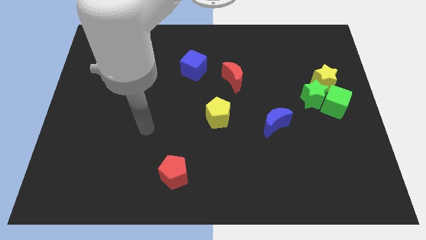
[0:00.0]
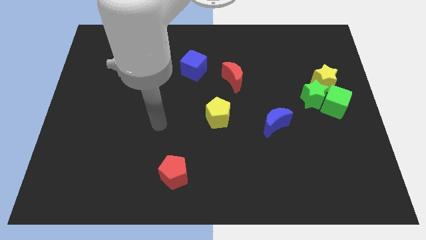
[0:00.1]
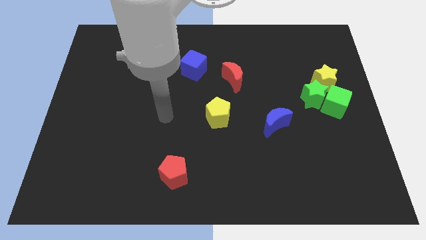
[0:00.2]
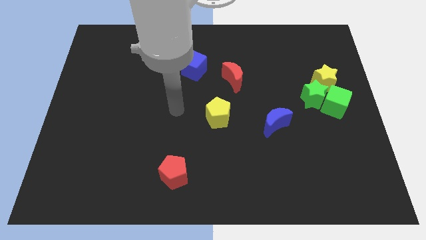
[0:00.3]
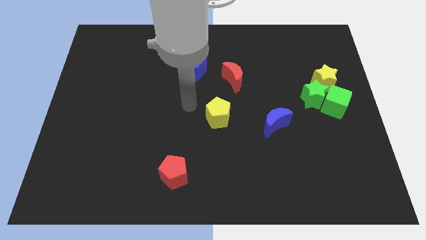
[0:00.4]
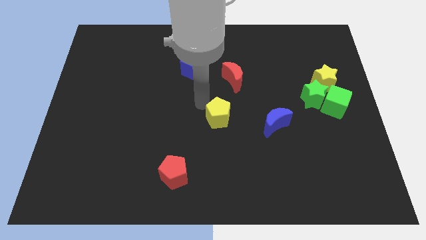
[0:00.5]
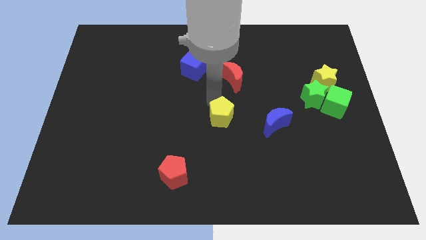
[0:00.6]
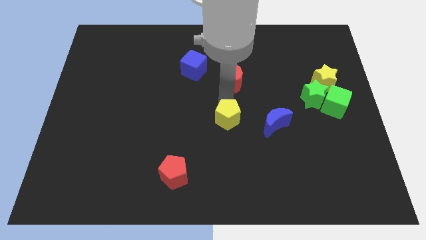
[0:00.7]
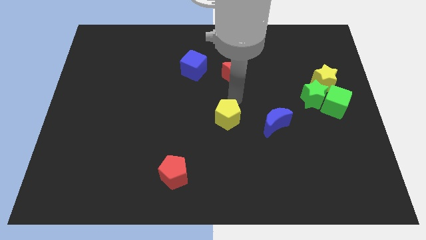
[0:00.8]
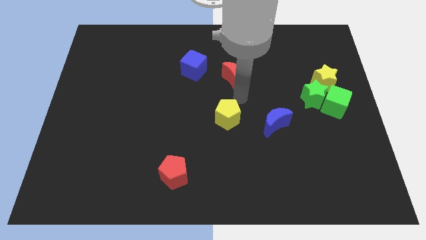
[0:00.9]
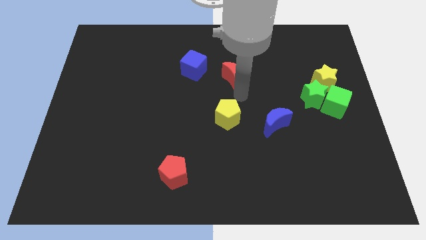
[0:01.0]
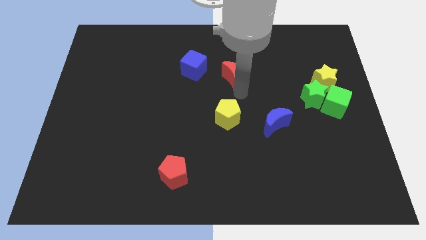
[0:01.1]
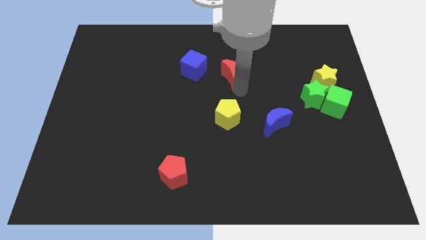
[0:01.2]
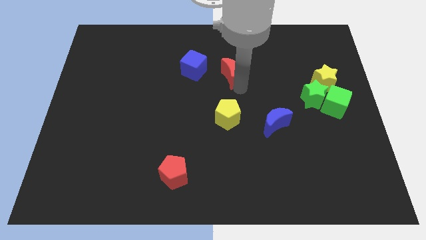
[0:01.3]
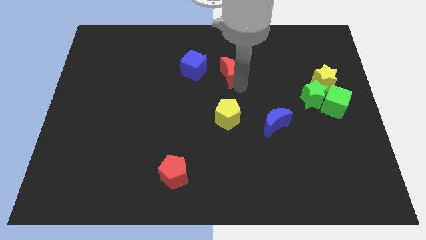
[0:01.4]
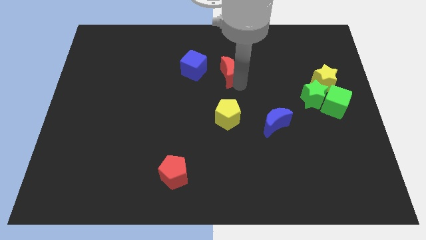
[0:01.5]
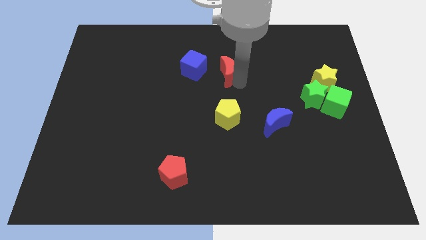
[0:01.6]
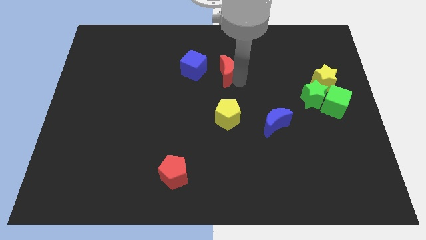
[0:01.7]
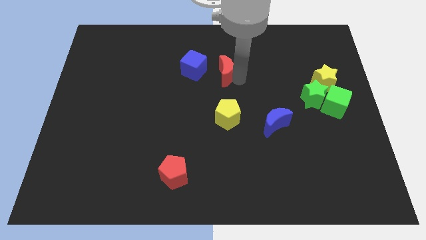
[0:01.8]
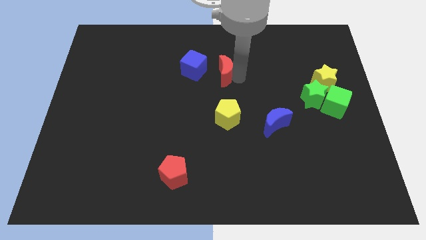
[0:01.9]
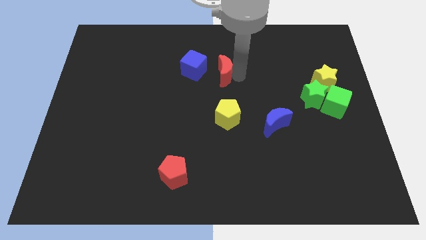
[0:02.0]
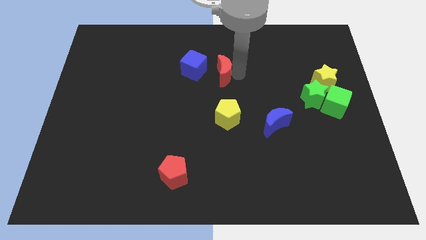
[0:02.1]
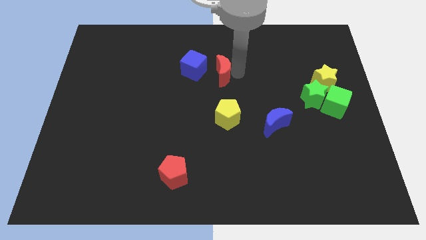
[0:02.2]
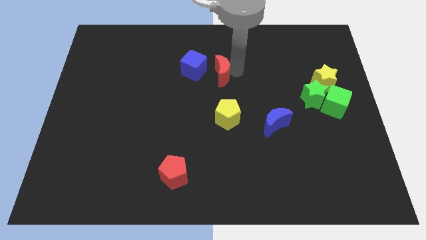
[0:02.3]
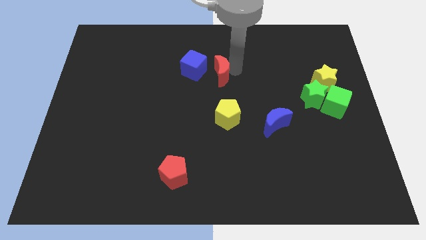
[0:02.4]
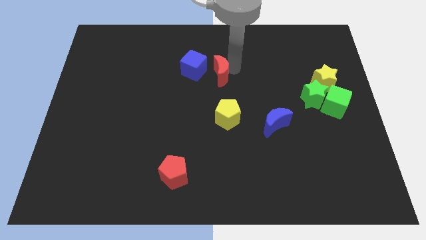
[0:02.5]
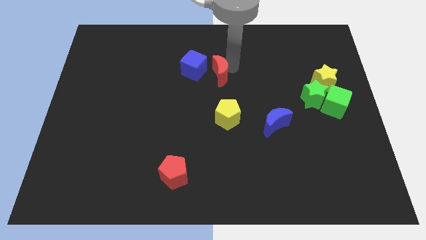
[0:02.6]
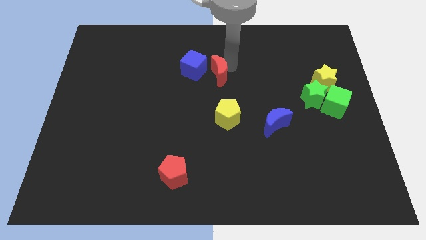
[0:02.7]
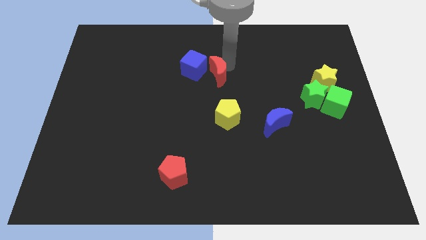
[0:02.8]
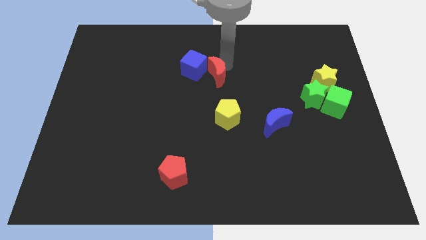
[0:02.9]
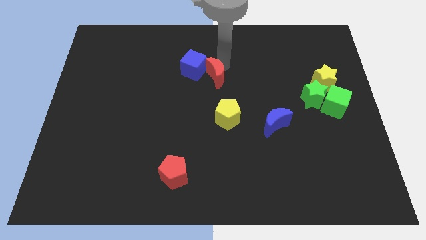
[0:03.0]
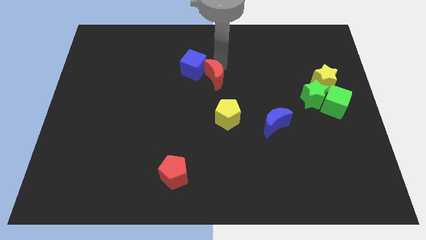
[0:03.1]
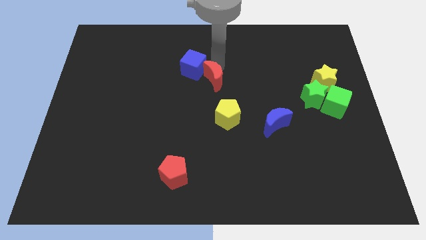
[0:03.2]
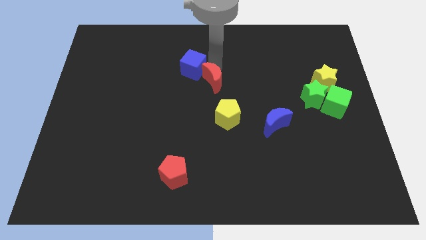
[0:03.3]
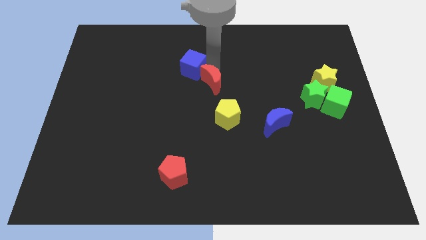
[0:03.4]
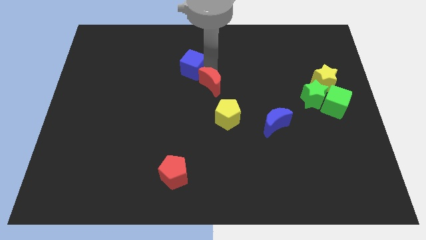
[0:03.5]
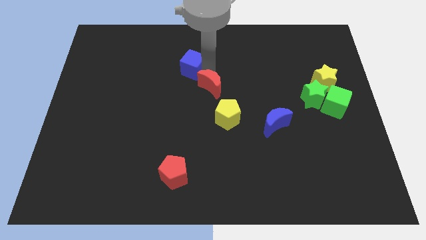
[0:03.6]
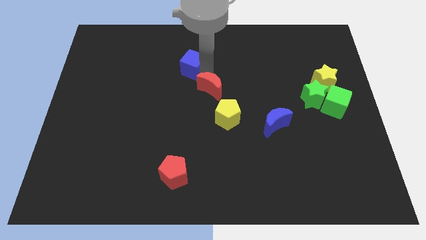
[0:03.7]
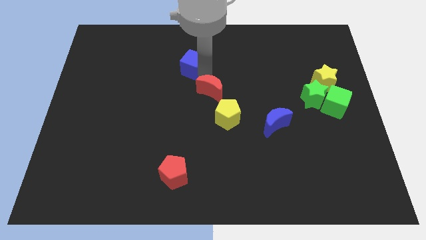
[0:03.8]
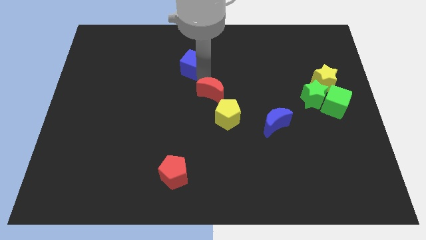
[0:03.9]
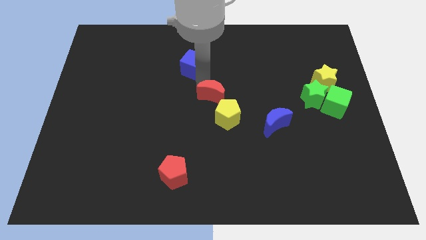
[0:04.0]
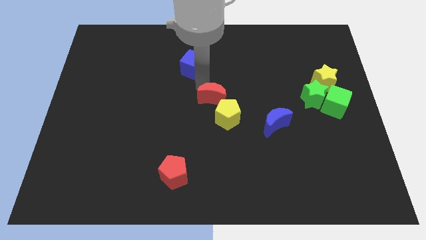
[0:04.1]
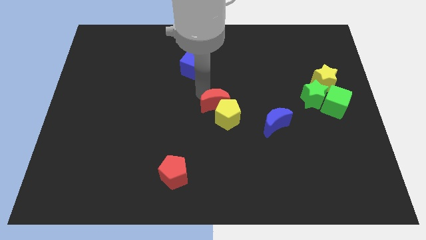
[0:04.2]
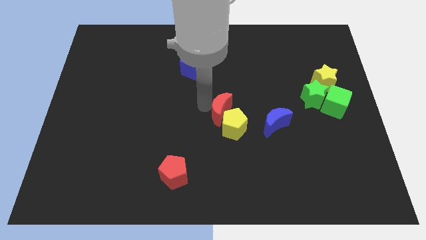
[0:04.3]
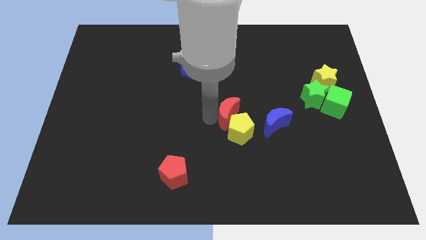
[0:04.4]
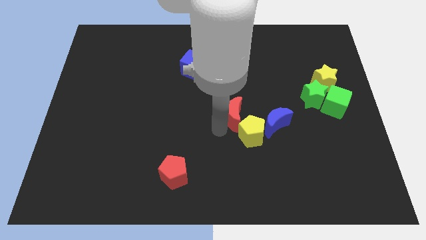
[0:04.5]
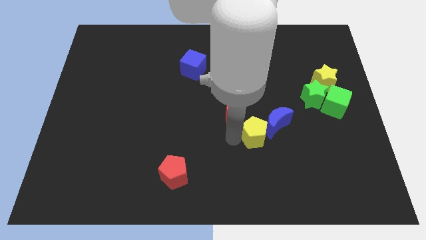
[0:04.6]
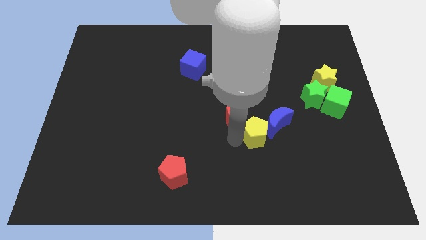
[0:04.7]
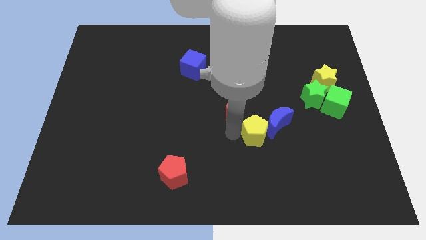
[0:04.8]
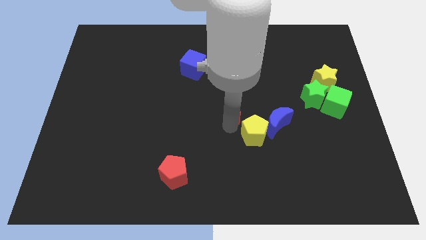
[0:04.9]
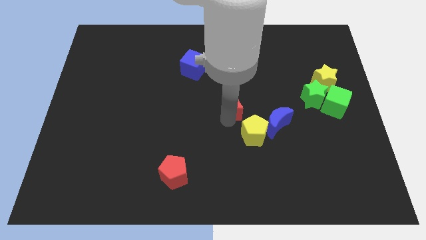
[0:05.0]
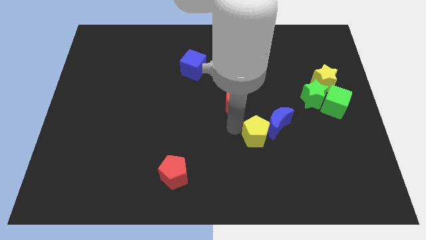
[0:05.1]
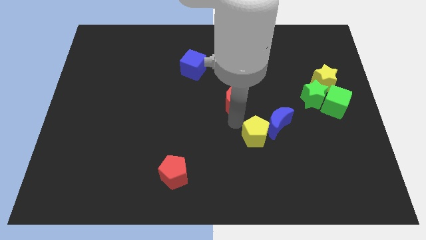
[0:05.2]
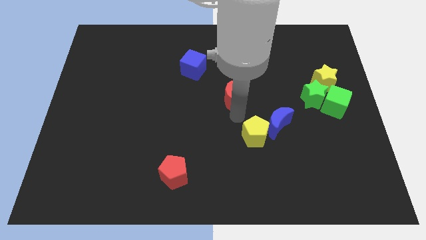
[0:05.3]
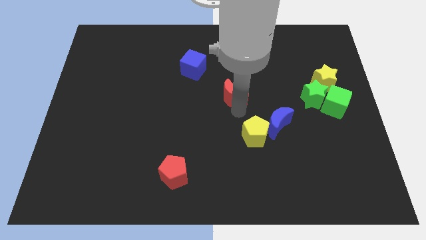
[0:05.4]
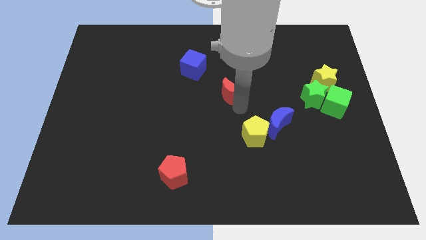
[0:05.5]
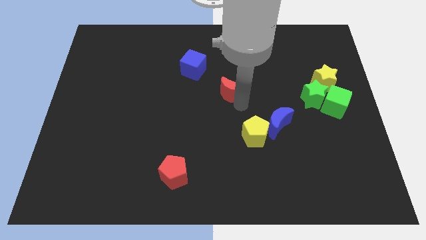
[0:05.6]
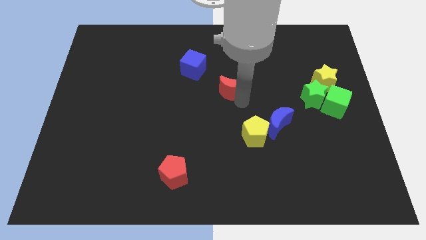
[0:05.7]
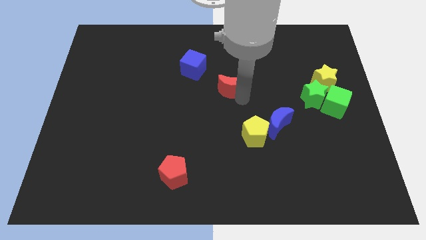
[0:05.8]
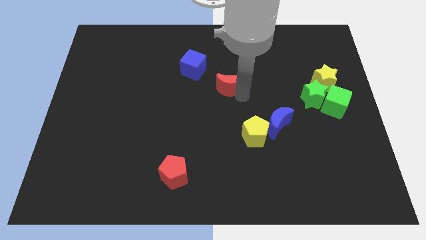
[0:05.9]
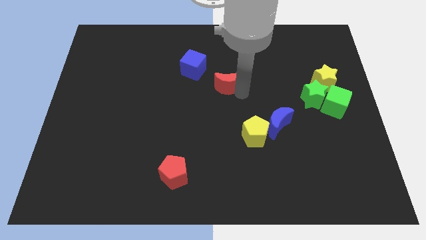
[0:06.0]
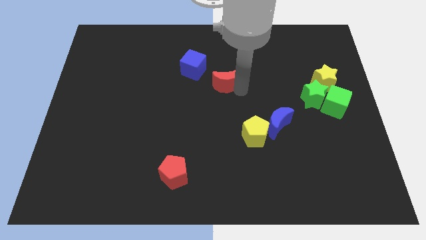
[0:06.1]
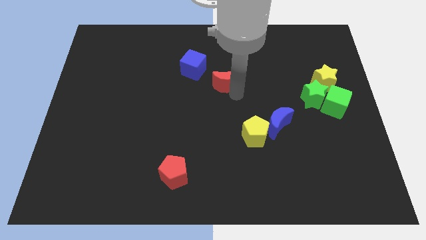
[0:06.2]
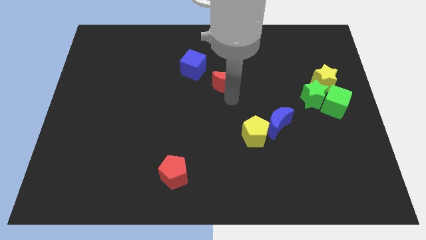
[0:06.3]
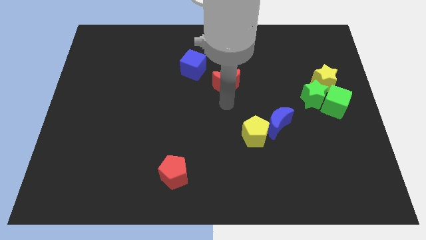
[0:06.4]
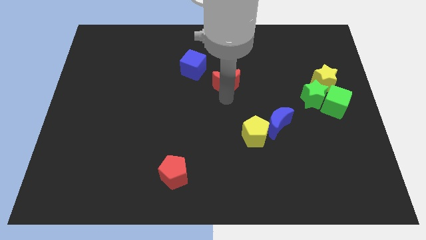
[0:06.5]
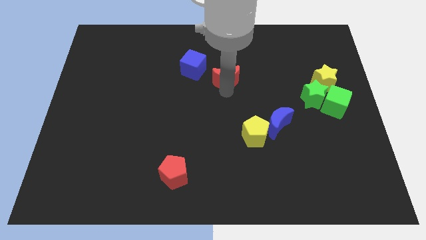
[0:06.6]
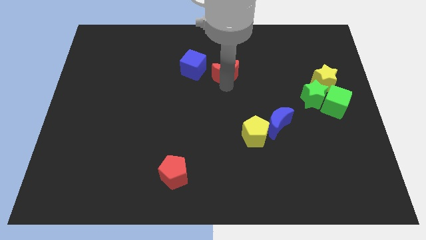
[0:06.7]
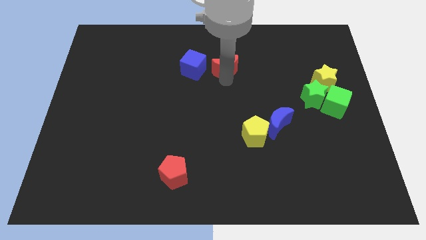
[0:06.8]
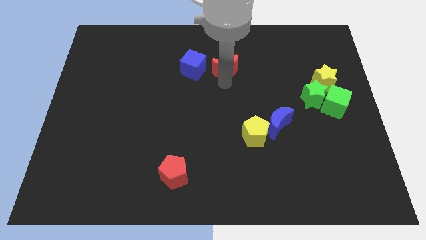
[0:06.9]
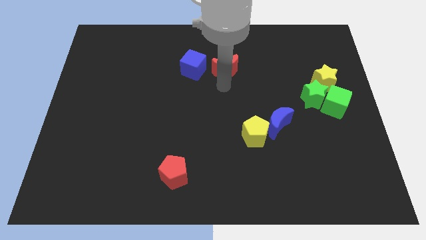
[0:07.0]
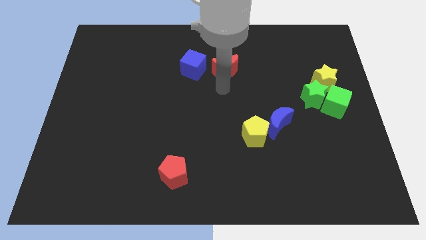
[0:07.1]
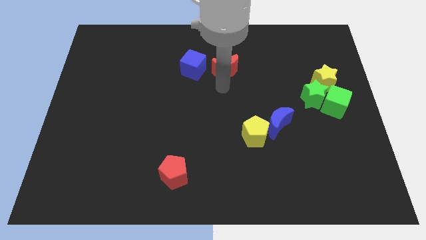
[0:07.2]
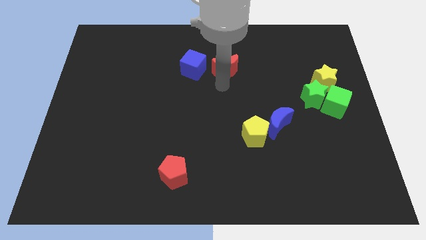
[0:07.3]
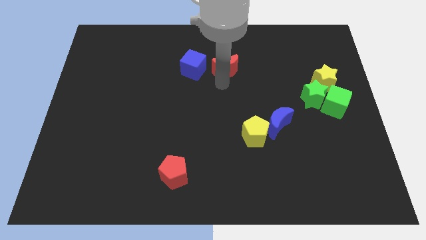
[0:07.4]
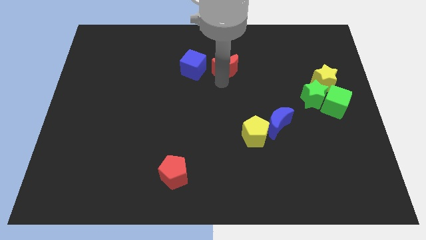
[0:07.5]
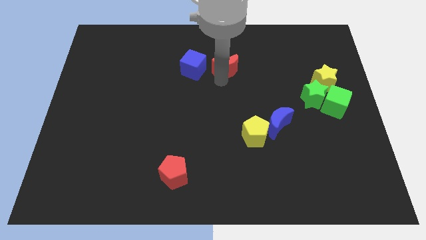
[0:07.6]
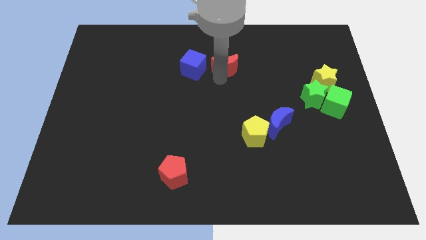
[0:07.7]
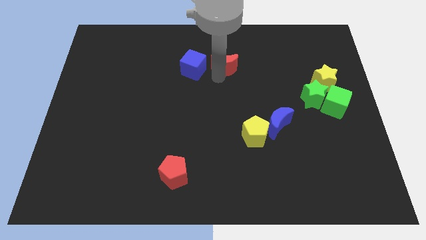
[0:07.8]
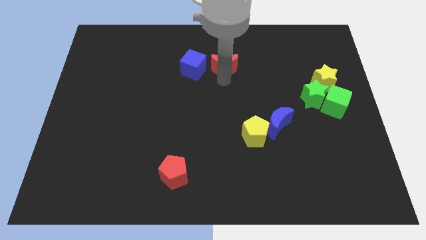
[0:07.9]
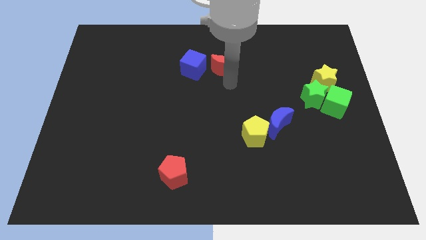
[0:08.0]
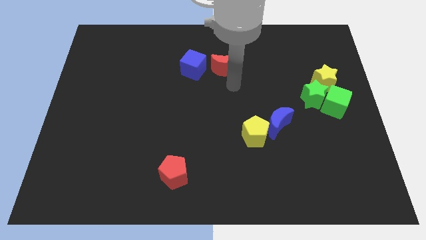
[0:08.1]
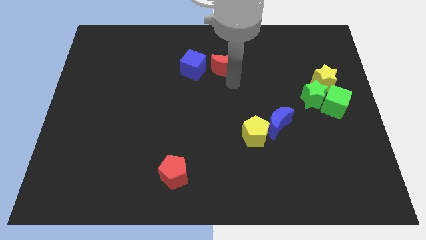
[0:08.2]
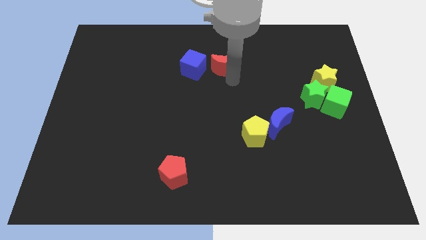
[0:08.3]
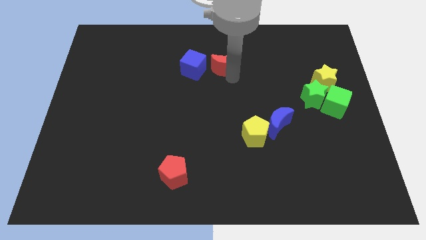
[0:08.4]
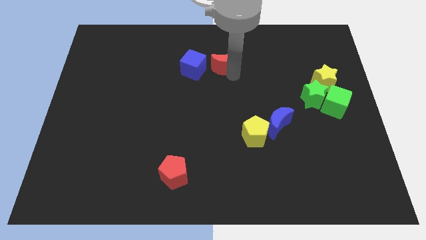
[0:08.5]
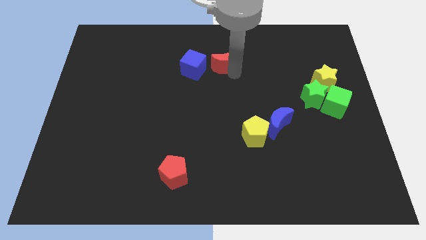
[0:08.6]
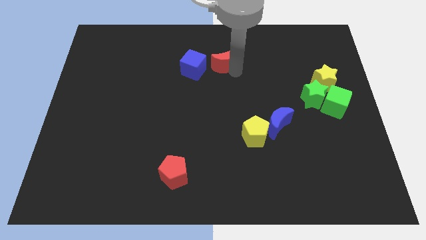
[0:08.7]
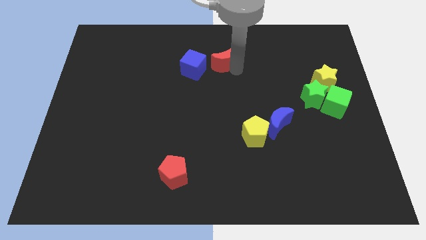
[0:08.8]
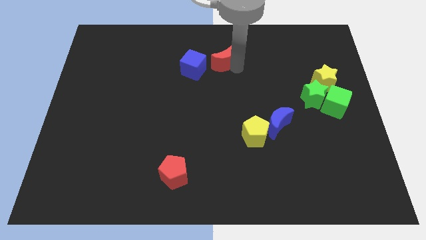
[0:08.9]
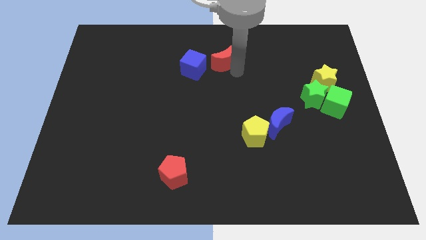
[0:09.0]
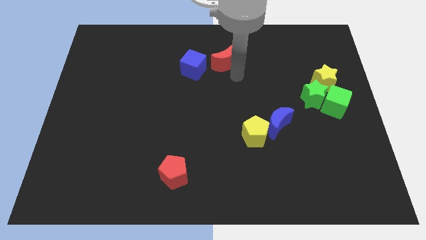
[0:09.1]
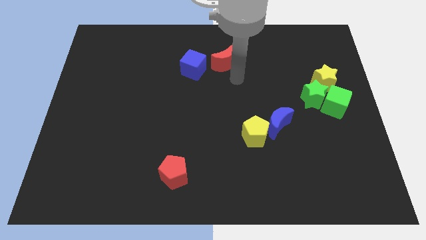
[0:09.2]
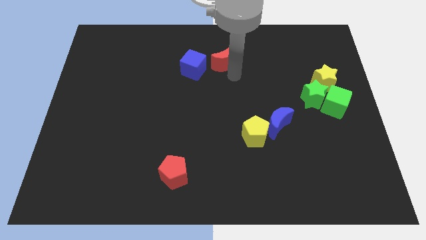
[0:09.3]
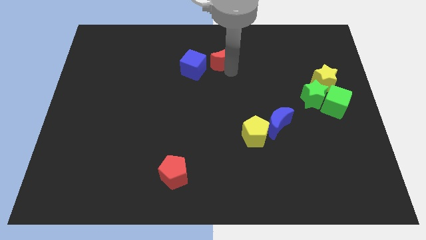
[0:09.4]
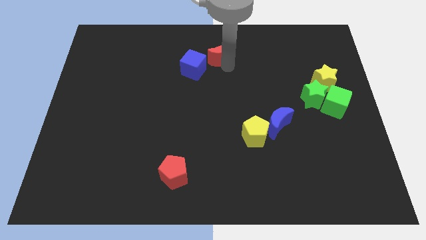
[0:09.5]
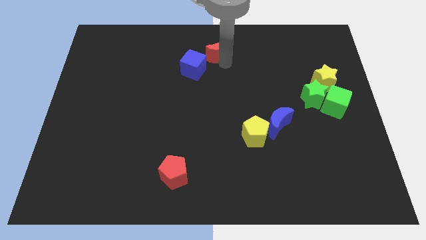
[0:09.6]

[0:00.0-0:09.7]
slide the red moon to the top
